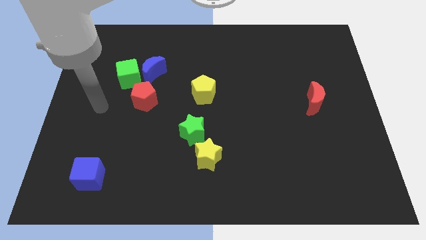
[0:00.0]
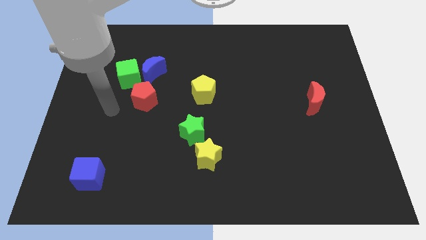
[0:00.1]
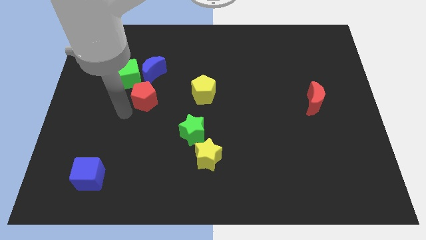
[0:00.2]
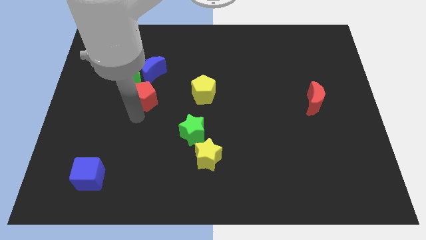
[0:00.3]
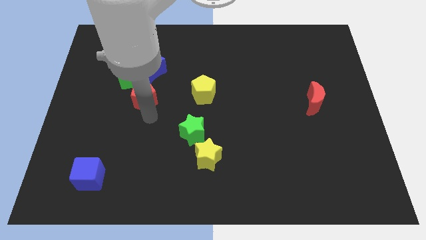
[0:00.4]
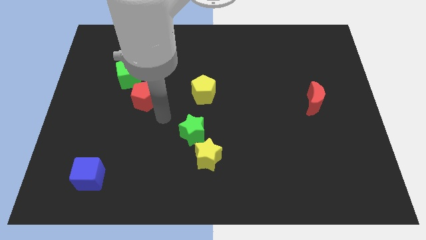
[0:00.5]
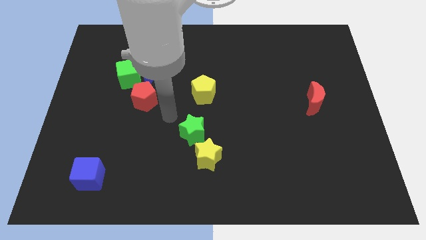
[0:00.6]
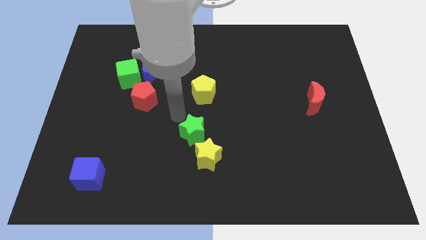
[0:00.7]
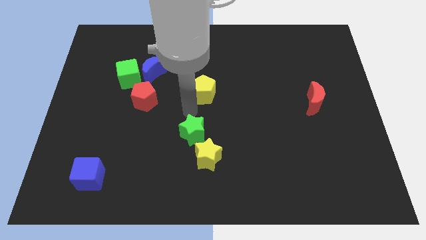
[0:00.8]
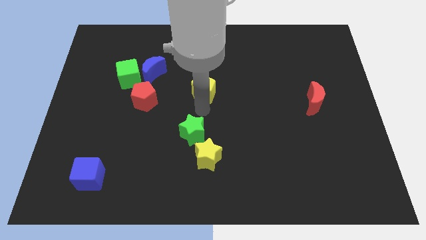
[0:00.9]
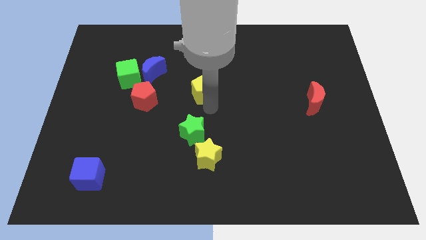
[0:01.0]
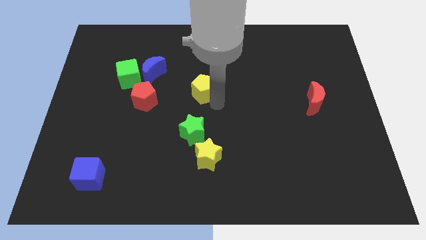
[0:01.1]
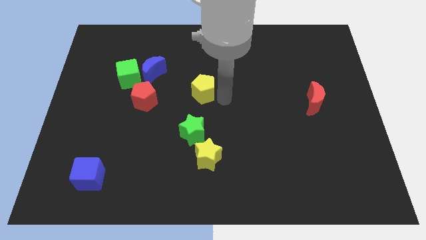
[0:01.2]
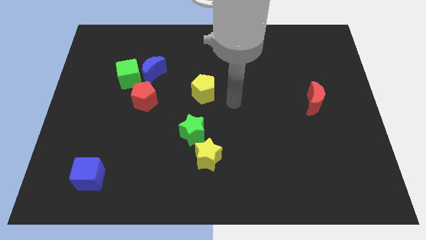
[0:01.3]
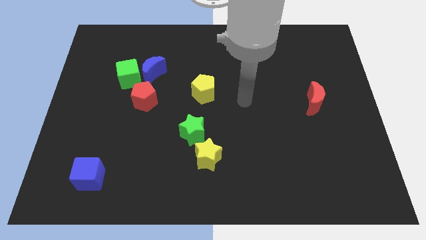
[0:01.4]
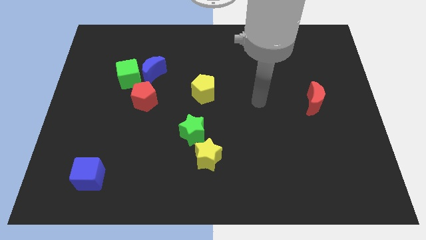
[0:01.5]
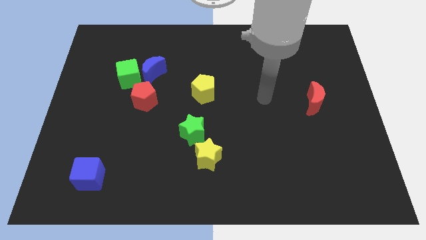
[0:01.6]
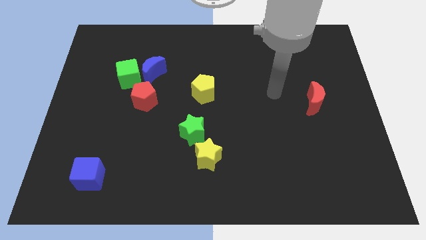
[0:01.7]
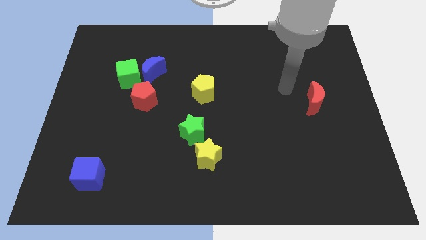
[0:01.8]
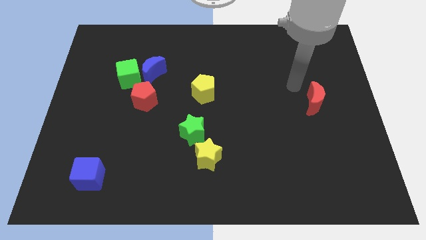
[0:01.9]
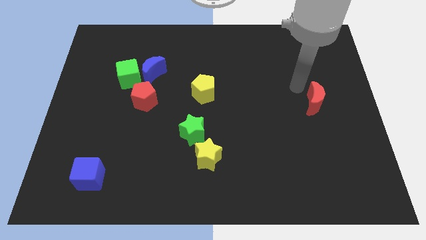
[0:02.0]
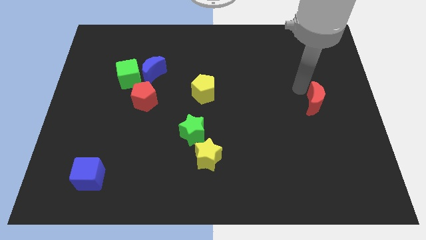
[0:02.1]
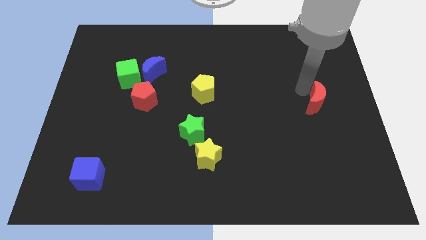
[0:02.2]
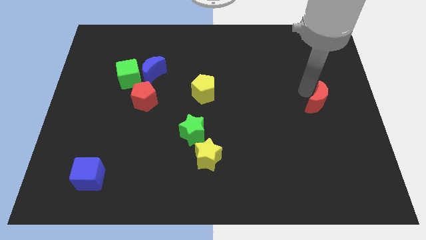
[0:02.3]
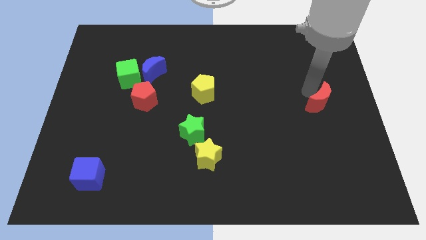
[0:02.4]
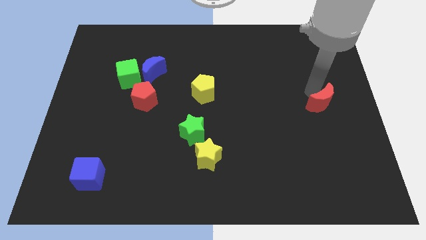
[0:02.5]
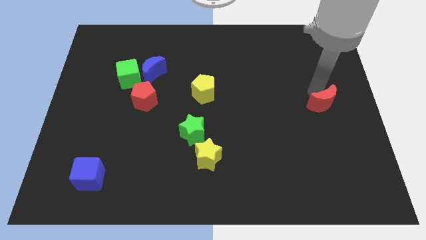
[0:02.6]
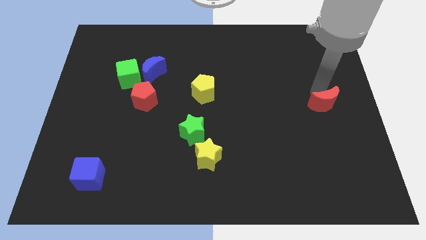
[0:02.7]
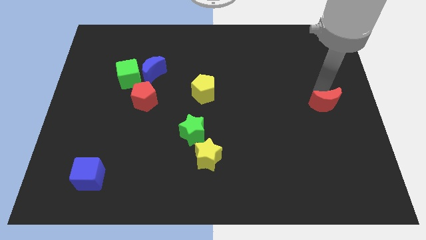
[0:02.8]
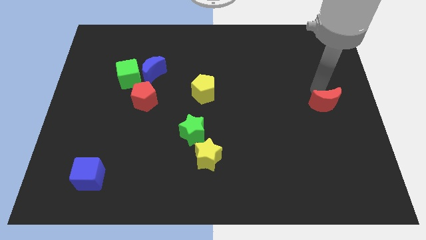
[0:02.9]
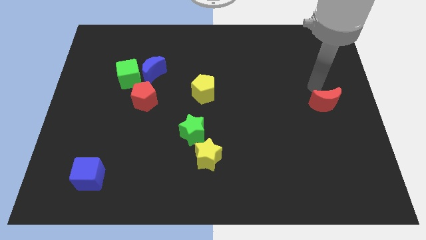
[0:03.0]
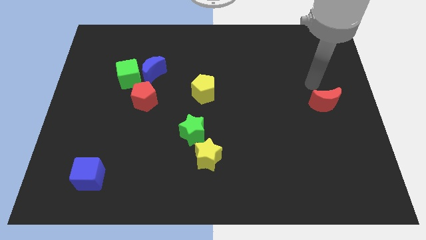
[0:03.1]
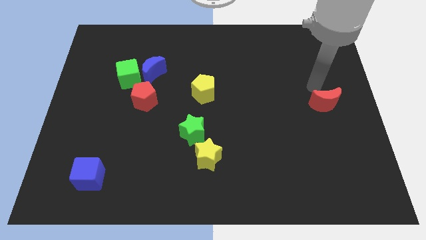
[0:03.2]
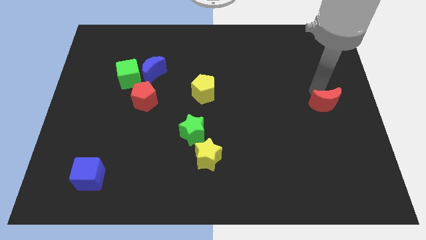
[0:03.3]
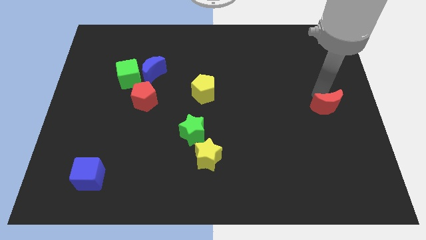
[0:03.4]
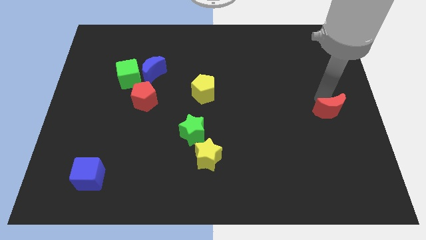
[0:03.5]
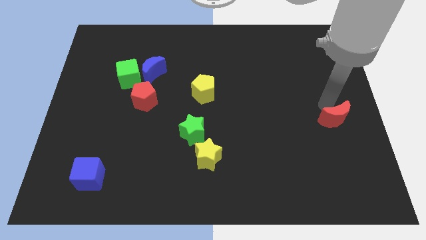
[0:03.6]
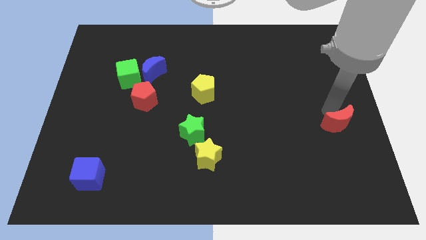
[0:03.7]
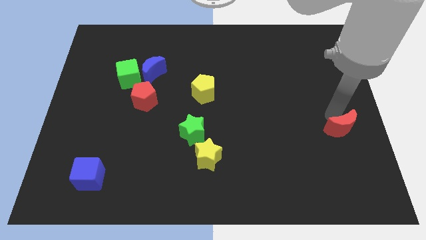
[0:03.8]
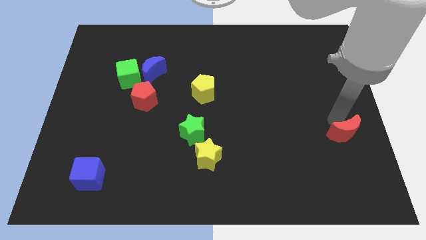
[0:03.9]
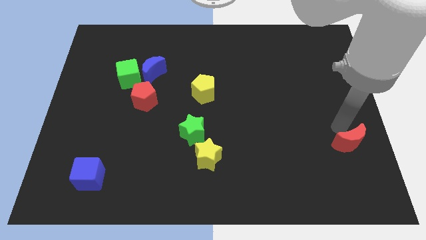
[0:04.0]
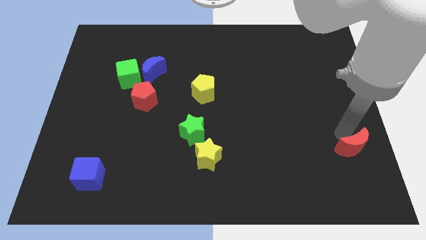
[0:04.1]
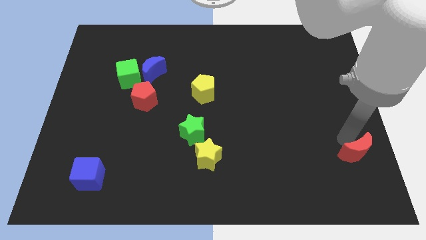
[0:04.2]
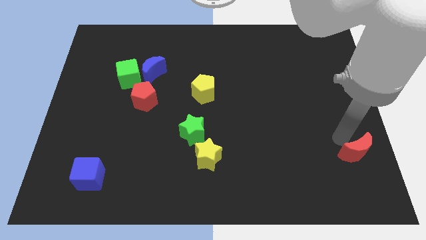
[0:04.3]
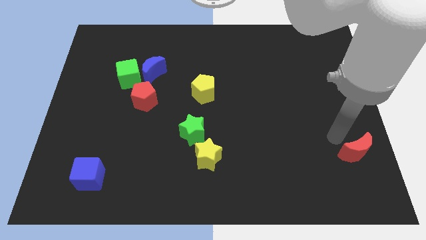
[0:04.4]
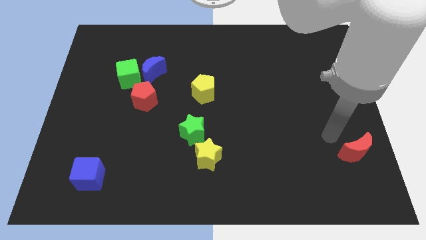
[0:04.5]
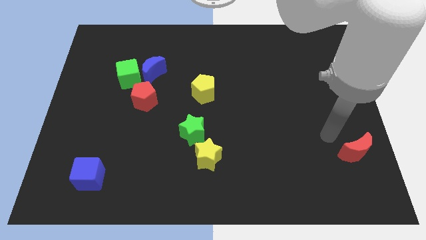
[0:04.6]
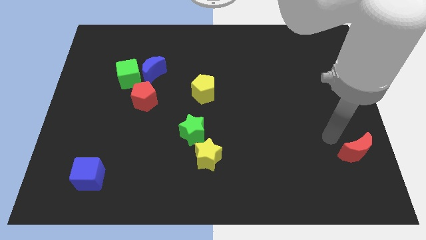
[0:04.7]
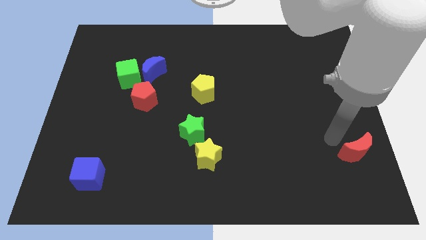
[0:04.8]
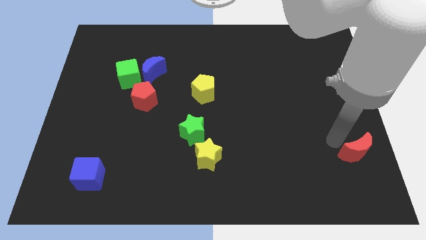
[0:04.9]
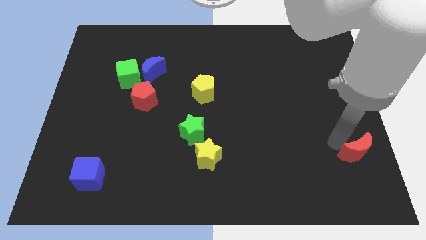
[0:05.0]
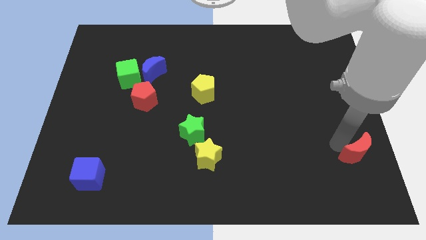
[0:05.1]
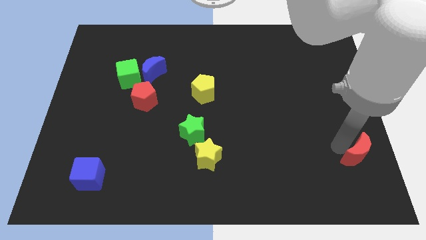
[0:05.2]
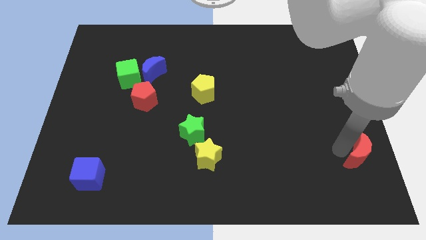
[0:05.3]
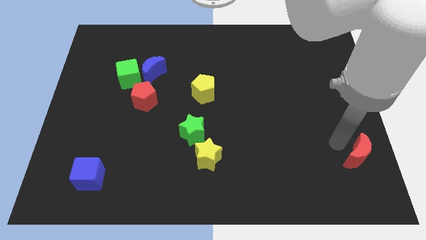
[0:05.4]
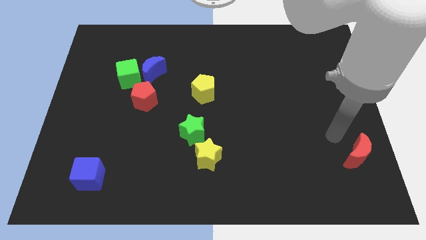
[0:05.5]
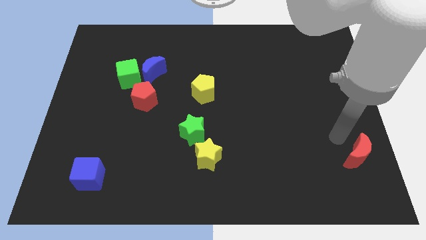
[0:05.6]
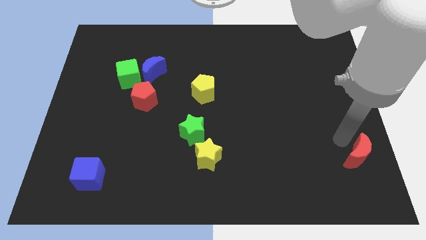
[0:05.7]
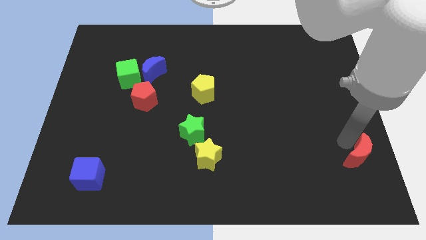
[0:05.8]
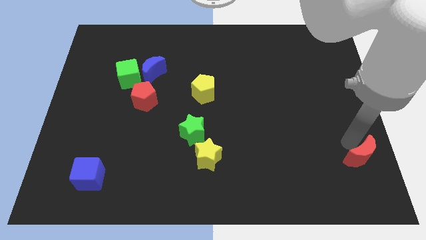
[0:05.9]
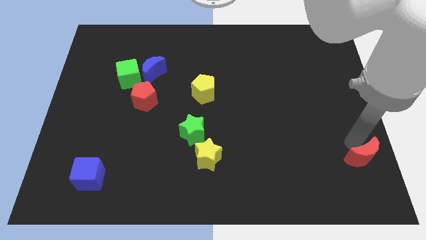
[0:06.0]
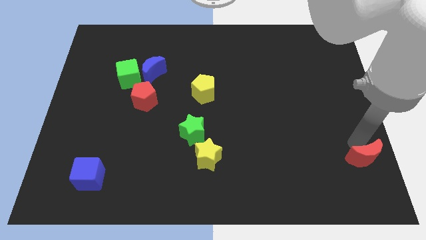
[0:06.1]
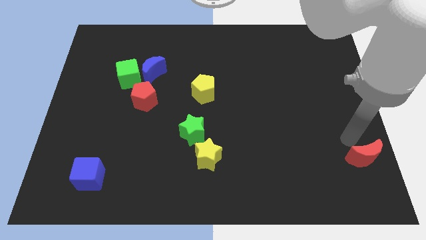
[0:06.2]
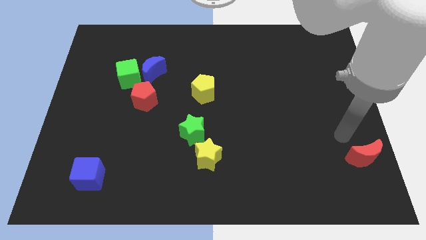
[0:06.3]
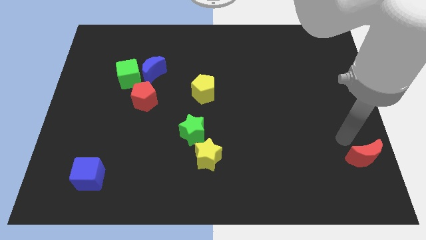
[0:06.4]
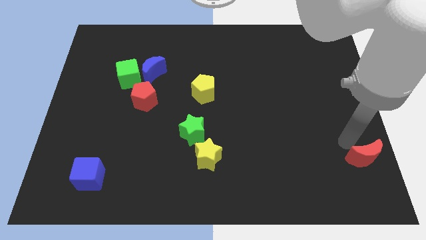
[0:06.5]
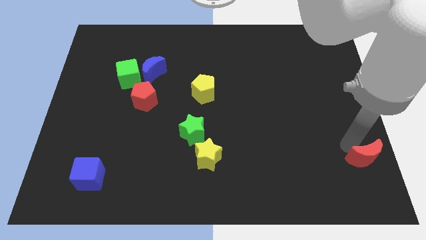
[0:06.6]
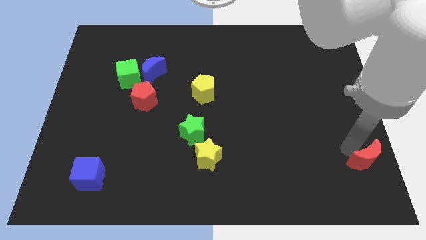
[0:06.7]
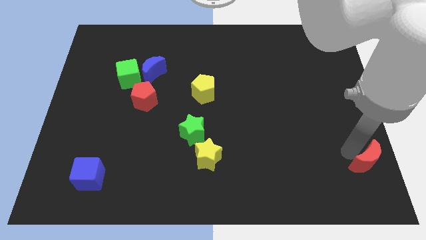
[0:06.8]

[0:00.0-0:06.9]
push the red moon to the bottom right corner
